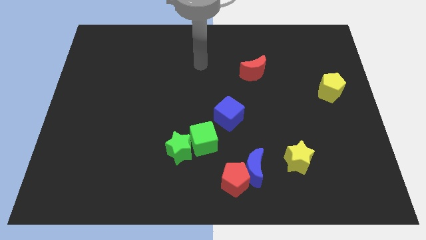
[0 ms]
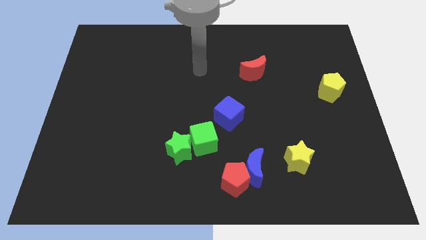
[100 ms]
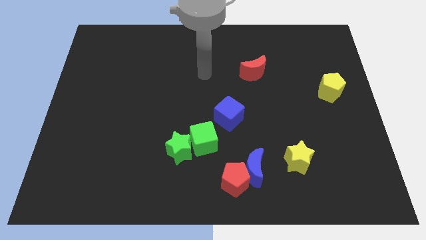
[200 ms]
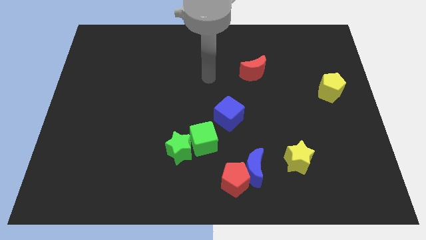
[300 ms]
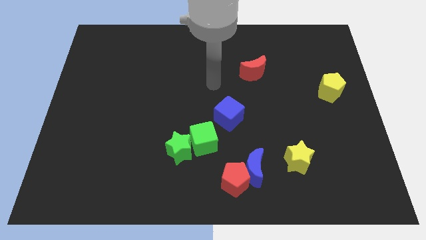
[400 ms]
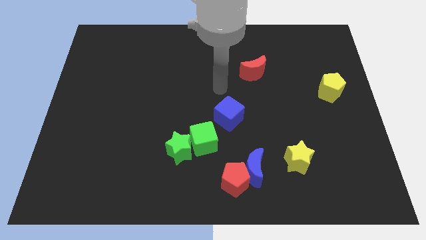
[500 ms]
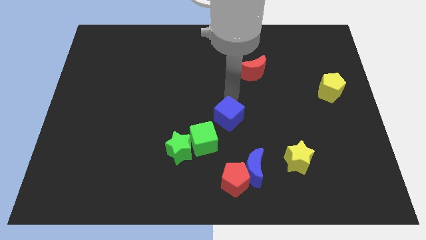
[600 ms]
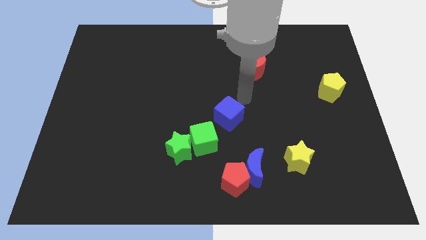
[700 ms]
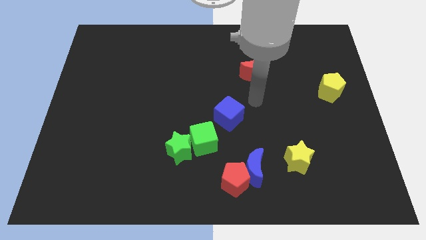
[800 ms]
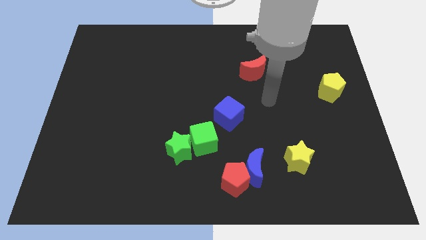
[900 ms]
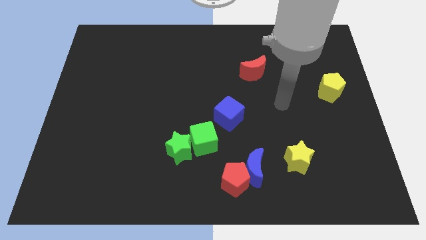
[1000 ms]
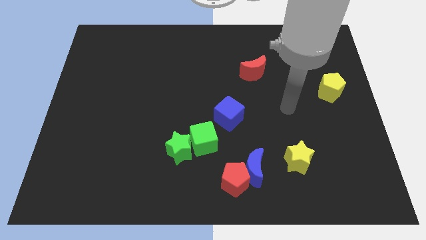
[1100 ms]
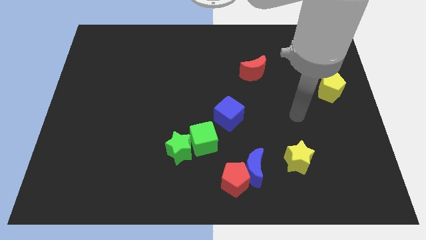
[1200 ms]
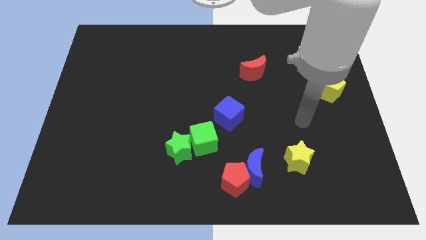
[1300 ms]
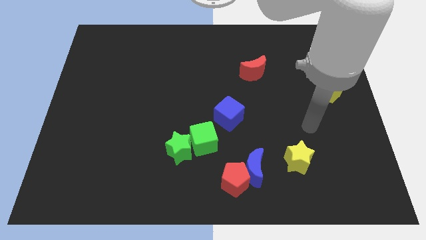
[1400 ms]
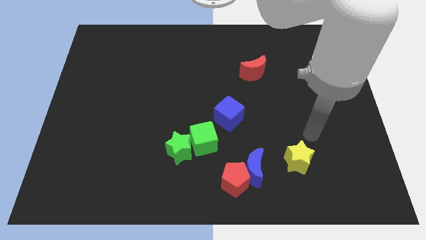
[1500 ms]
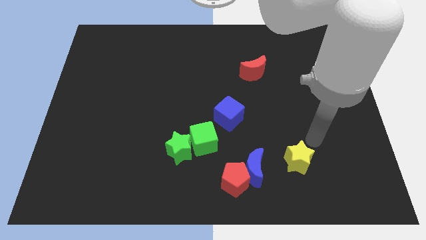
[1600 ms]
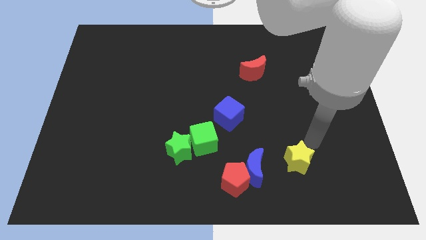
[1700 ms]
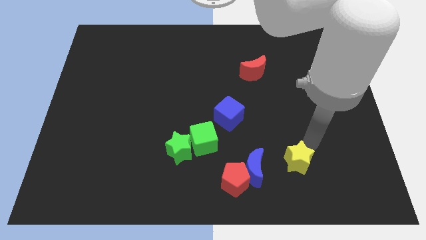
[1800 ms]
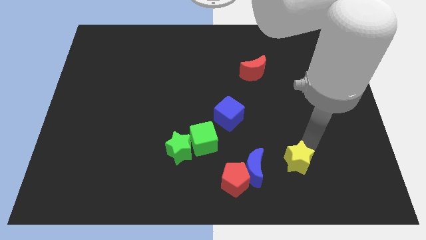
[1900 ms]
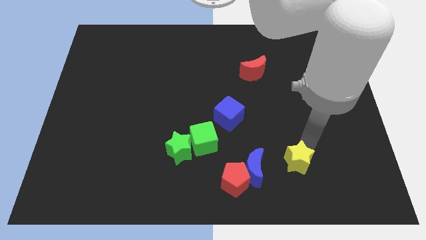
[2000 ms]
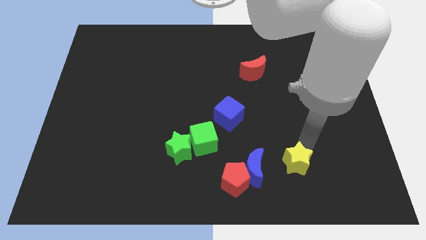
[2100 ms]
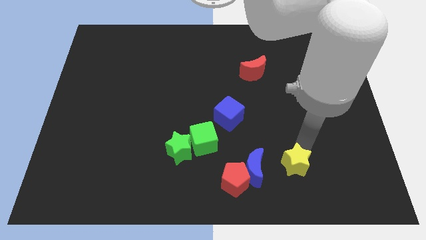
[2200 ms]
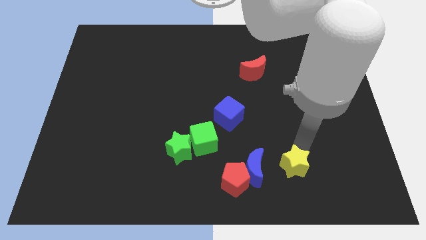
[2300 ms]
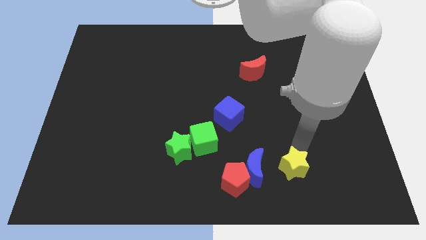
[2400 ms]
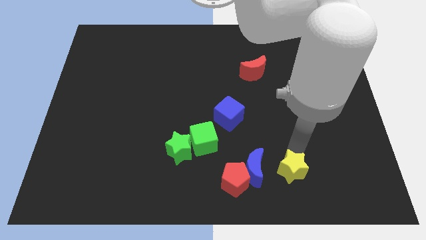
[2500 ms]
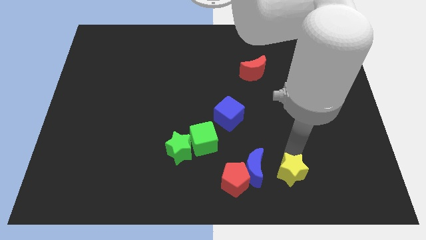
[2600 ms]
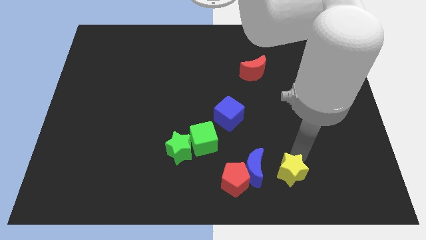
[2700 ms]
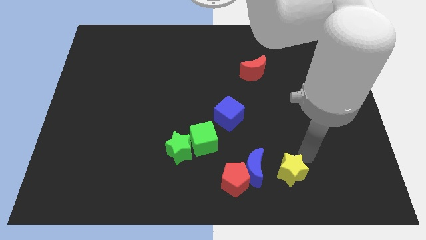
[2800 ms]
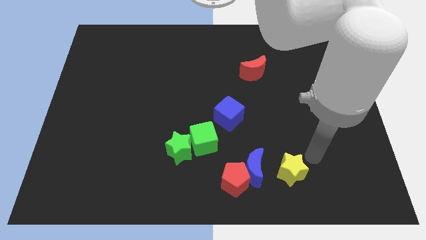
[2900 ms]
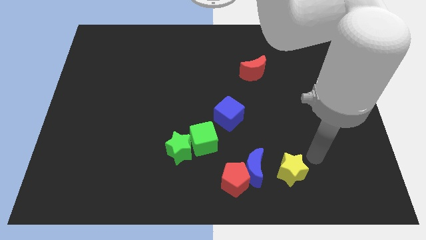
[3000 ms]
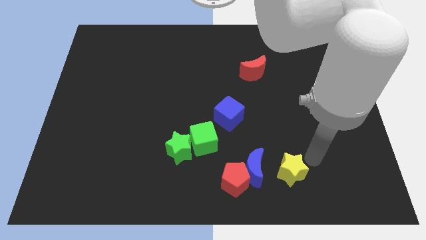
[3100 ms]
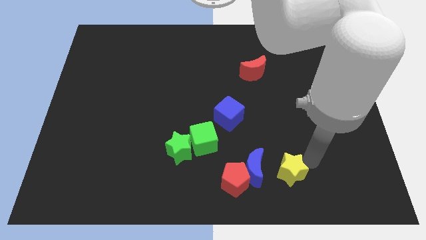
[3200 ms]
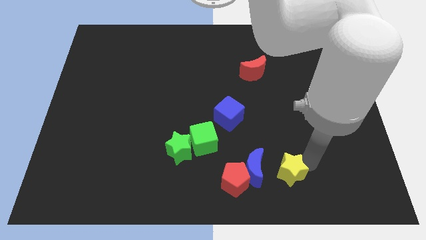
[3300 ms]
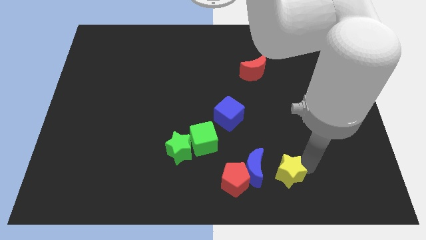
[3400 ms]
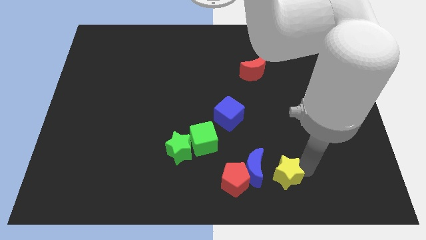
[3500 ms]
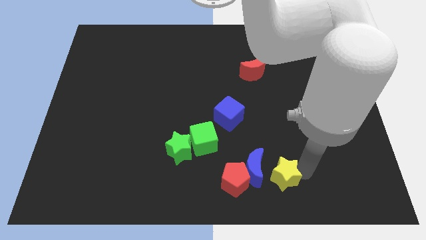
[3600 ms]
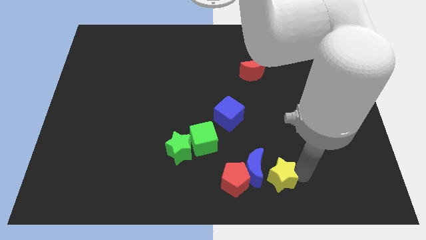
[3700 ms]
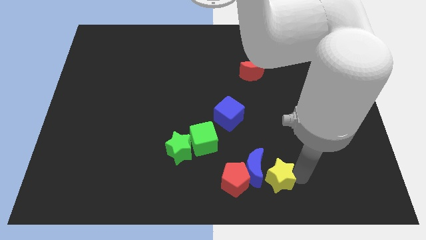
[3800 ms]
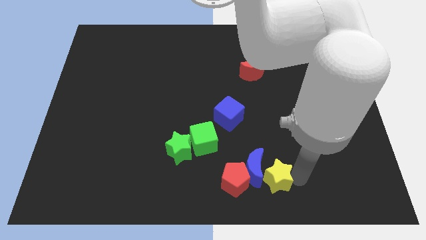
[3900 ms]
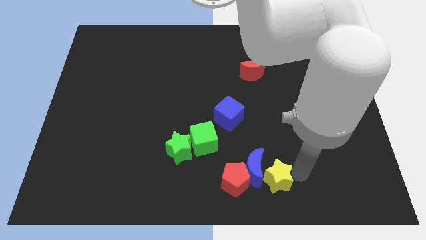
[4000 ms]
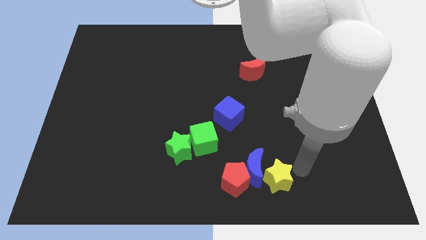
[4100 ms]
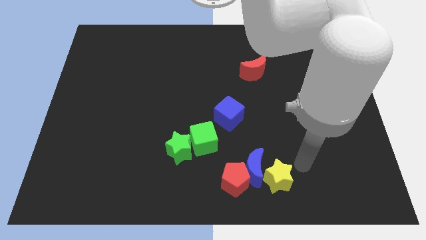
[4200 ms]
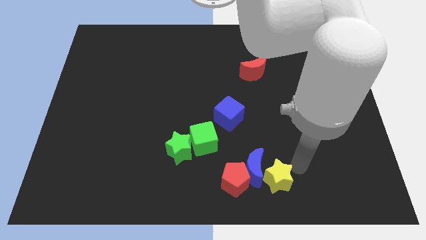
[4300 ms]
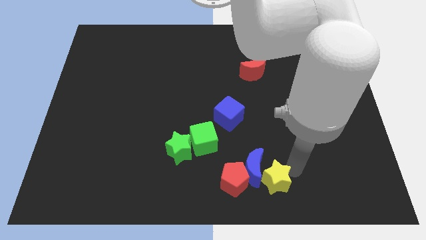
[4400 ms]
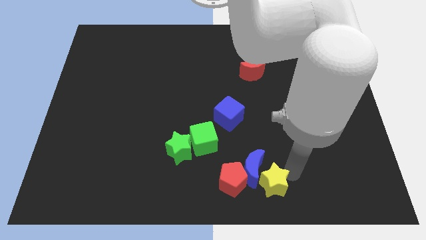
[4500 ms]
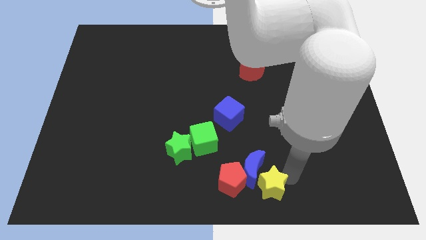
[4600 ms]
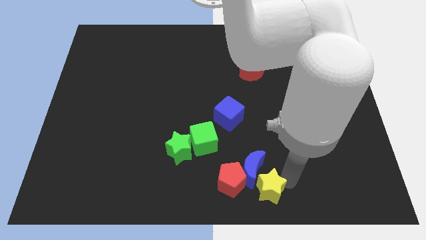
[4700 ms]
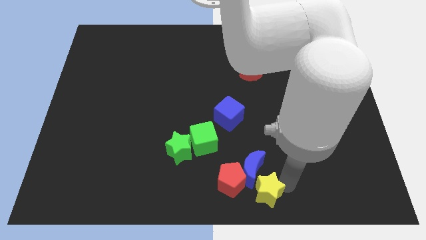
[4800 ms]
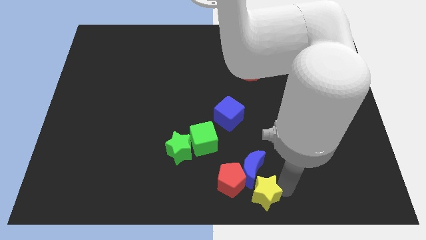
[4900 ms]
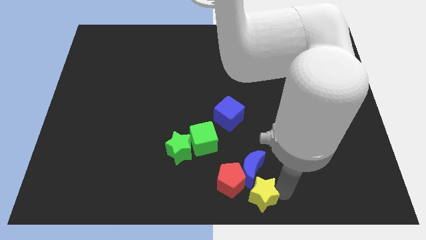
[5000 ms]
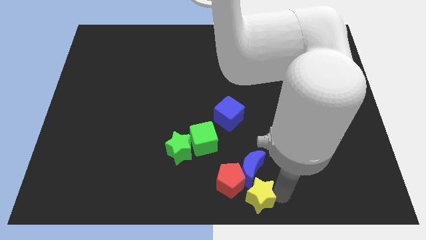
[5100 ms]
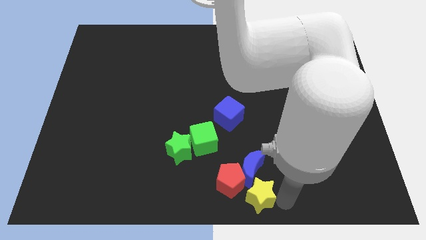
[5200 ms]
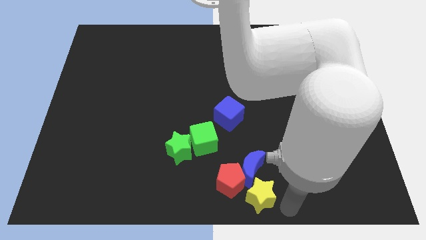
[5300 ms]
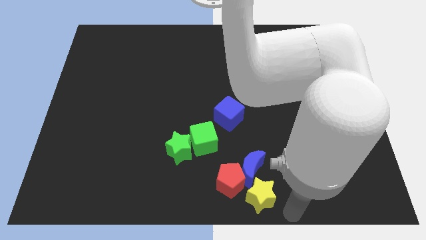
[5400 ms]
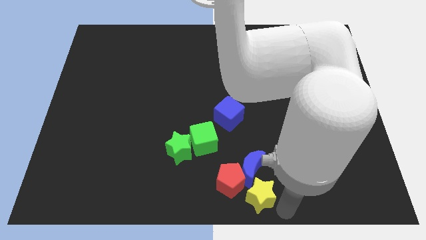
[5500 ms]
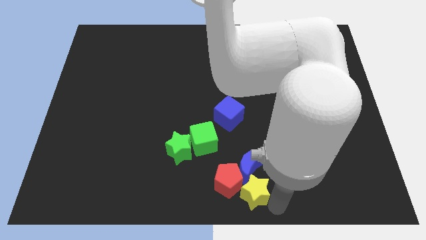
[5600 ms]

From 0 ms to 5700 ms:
slide the yellow star close to the red pentagon

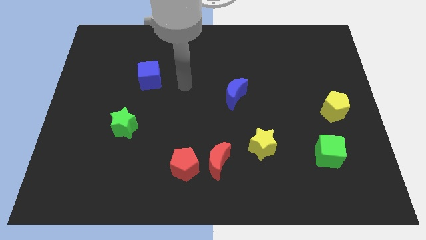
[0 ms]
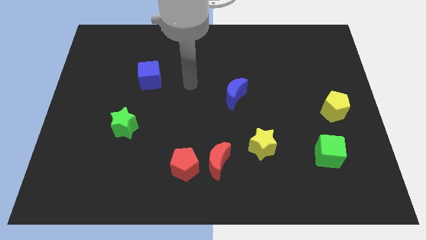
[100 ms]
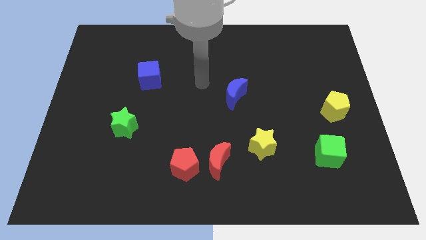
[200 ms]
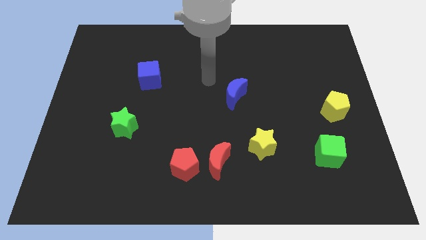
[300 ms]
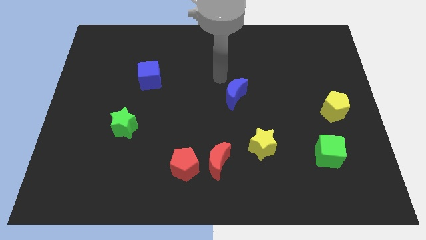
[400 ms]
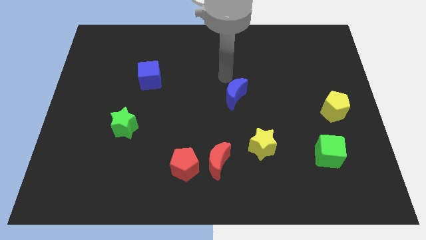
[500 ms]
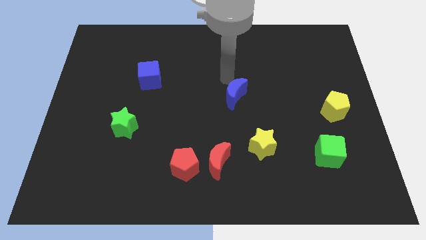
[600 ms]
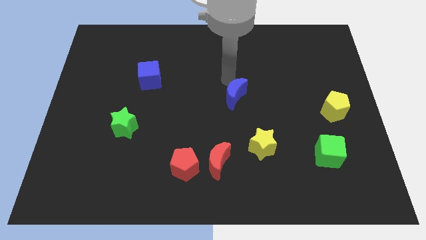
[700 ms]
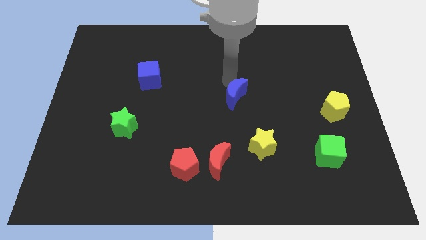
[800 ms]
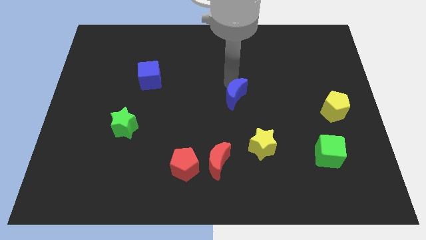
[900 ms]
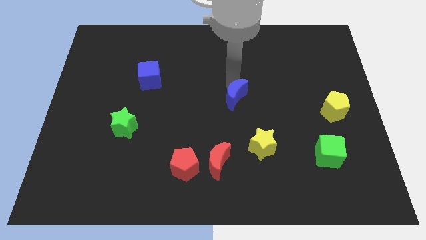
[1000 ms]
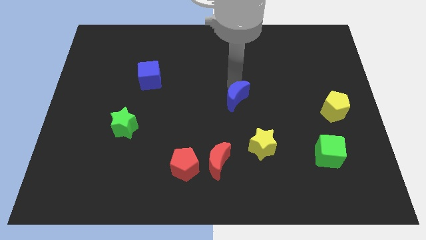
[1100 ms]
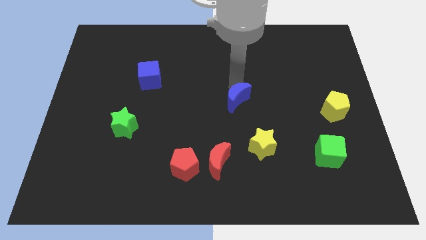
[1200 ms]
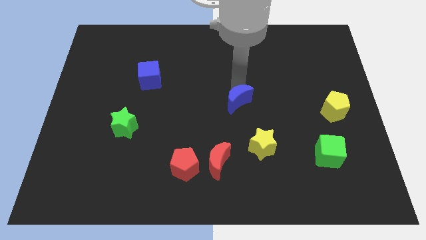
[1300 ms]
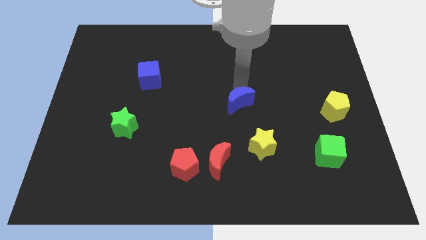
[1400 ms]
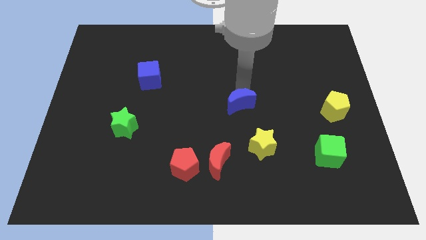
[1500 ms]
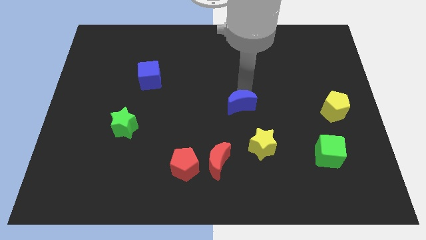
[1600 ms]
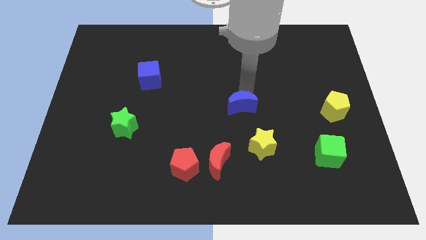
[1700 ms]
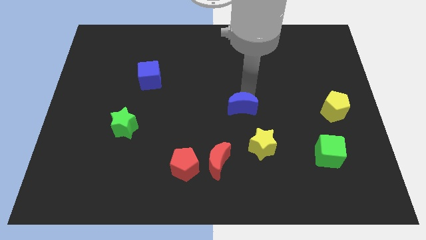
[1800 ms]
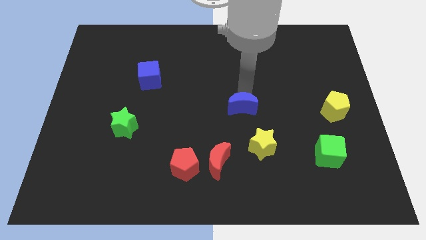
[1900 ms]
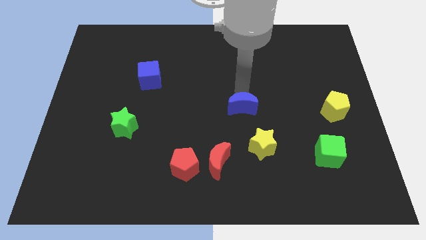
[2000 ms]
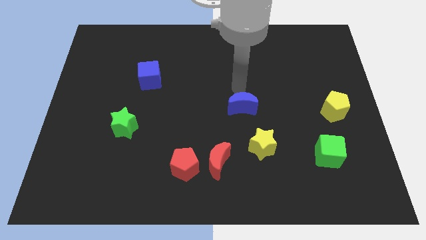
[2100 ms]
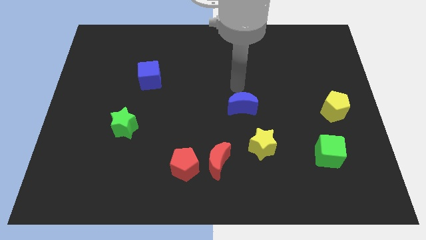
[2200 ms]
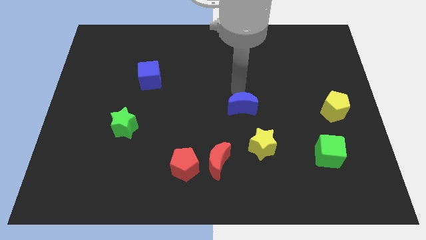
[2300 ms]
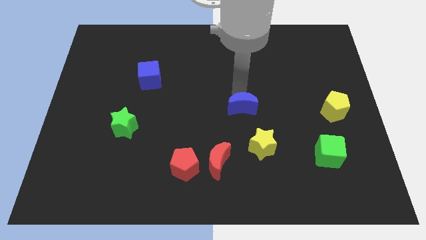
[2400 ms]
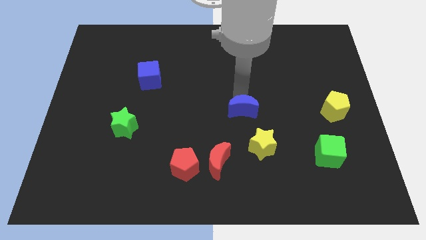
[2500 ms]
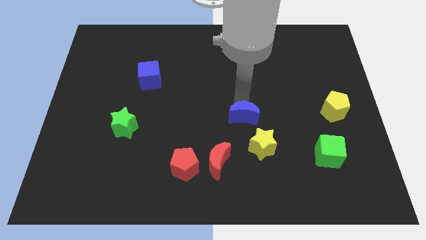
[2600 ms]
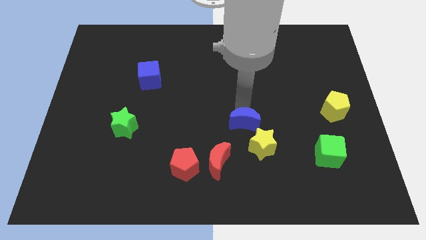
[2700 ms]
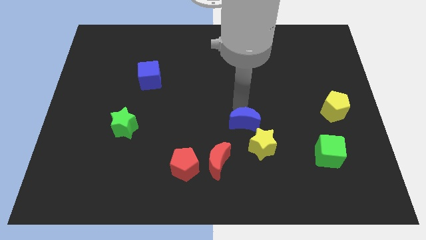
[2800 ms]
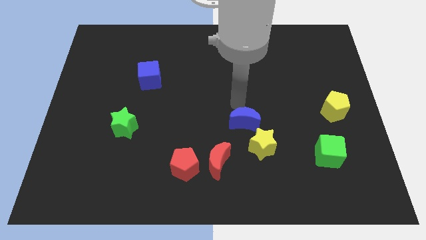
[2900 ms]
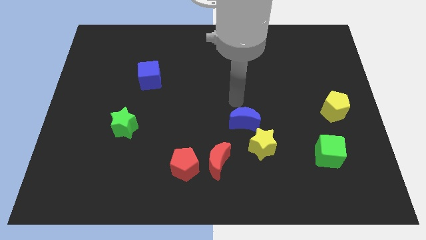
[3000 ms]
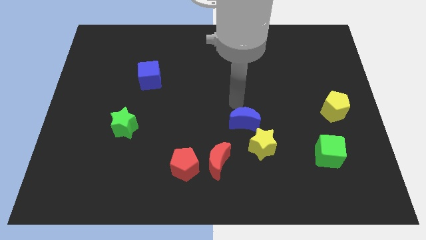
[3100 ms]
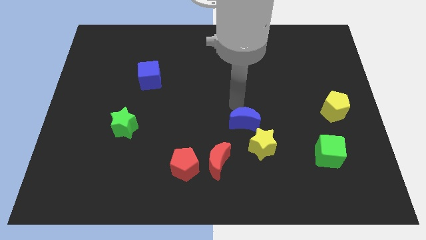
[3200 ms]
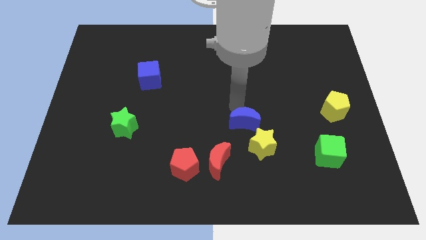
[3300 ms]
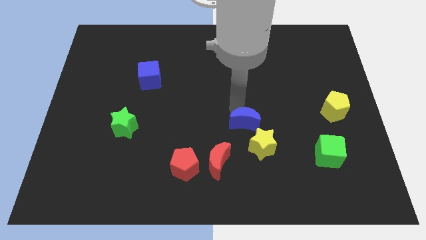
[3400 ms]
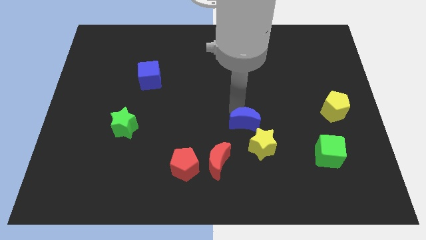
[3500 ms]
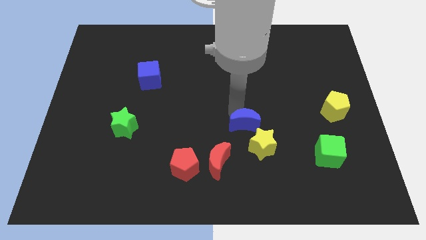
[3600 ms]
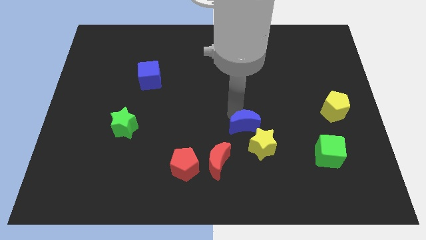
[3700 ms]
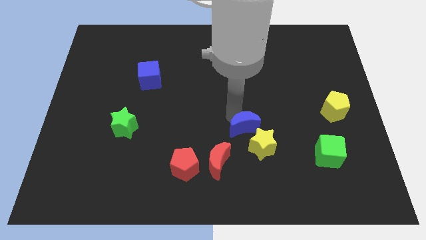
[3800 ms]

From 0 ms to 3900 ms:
move the blue moon towards the yellow star
